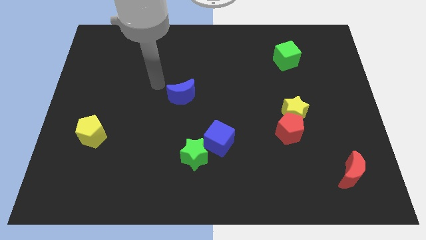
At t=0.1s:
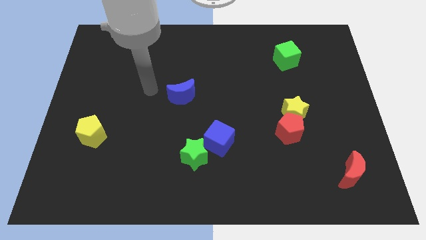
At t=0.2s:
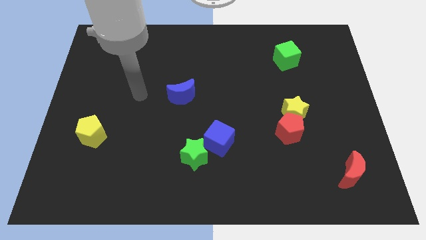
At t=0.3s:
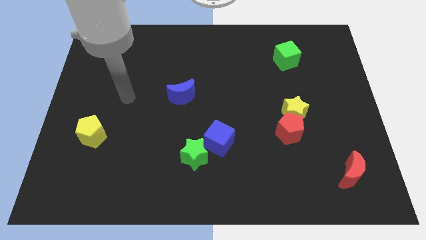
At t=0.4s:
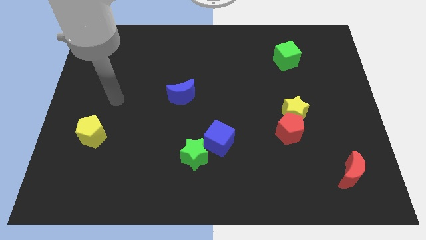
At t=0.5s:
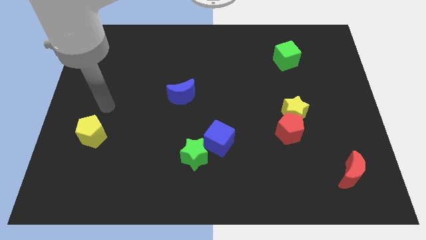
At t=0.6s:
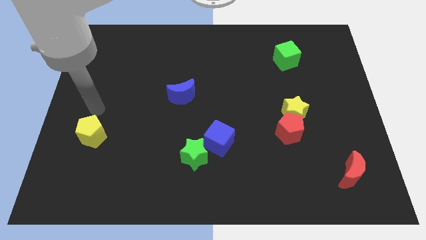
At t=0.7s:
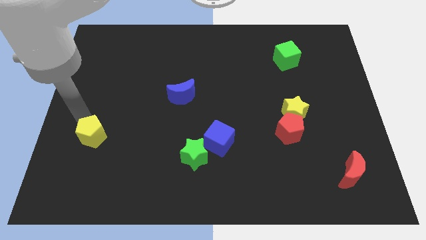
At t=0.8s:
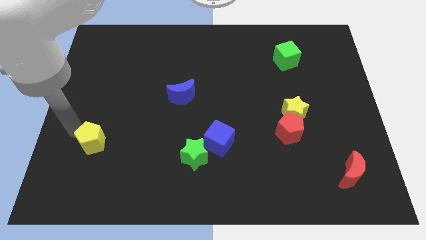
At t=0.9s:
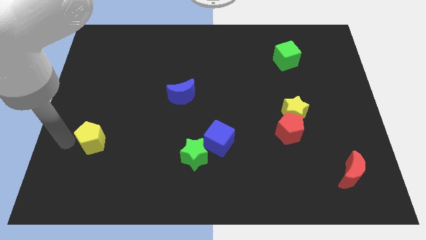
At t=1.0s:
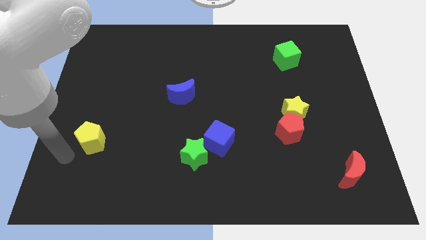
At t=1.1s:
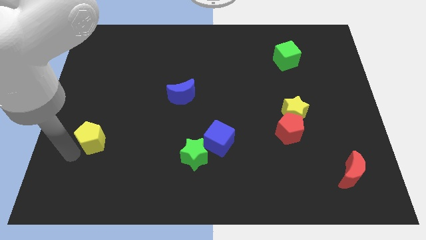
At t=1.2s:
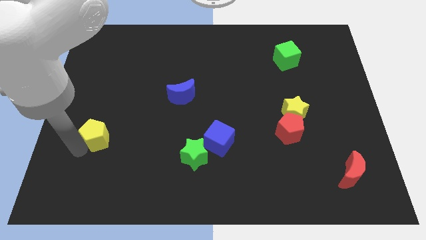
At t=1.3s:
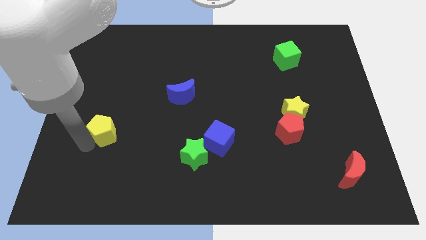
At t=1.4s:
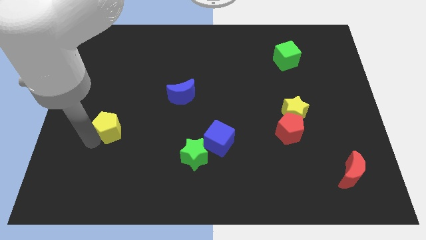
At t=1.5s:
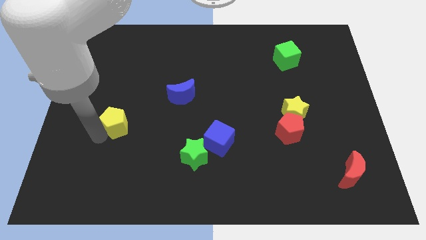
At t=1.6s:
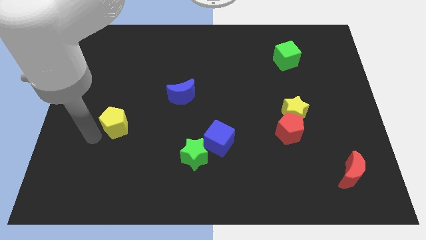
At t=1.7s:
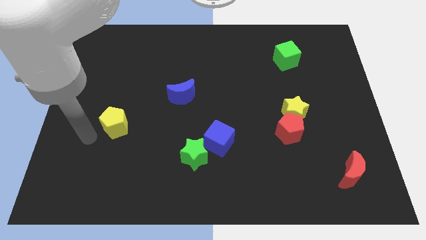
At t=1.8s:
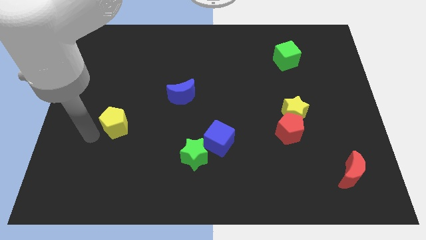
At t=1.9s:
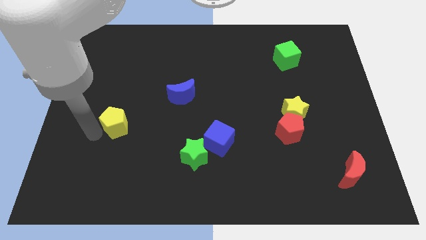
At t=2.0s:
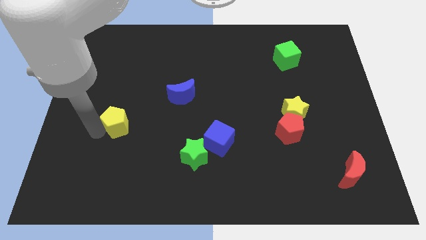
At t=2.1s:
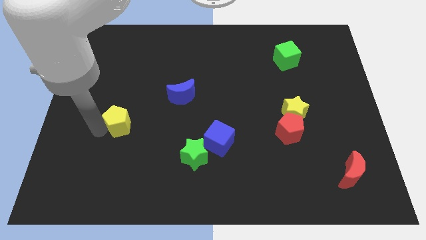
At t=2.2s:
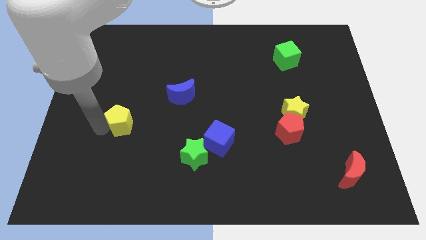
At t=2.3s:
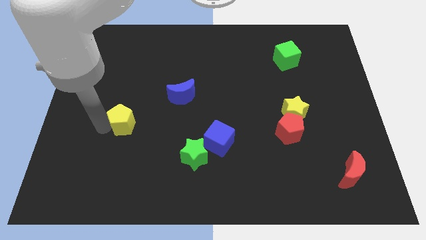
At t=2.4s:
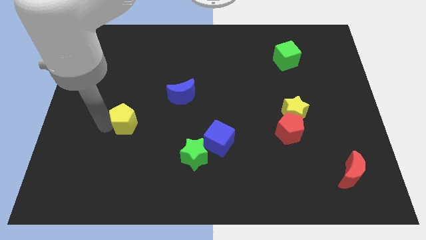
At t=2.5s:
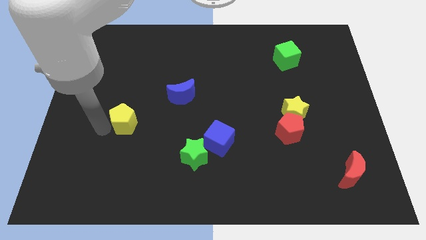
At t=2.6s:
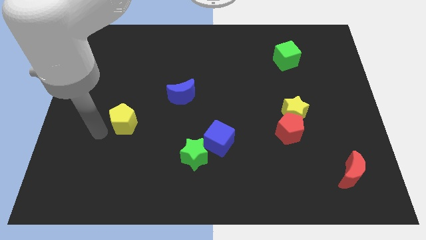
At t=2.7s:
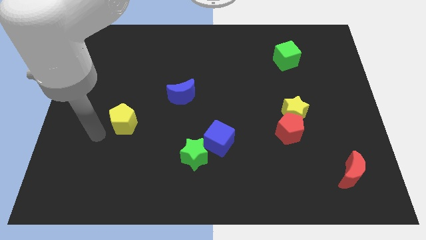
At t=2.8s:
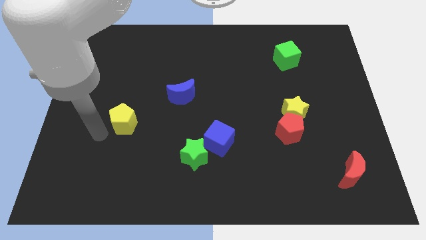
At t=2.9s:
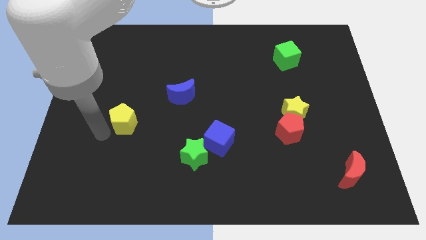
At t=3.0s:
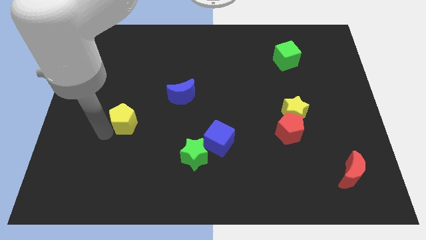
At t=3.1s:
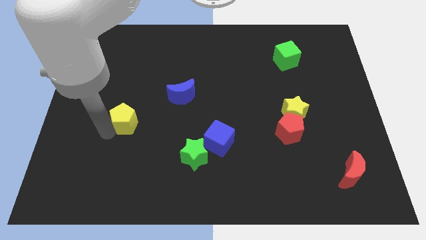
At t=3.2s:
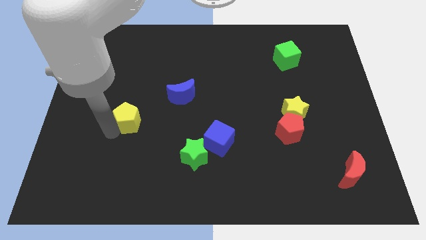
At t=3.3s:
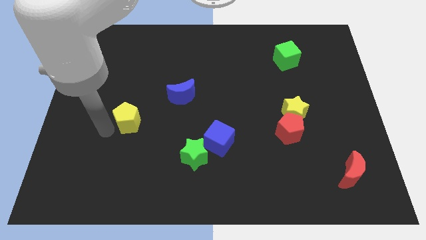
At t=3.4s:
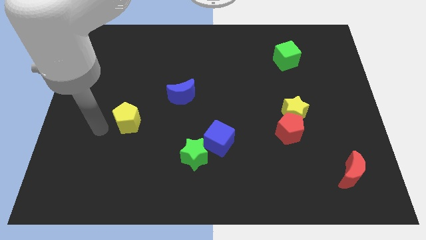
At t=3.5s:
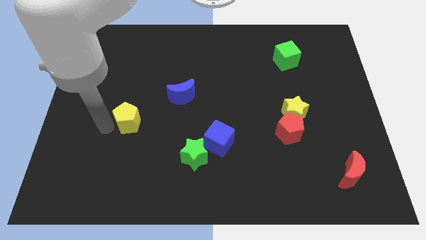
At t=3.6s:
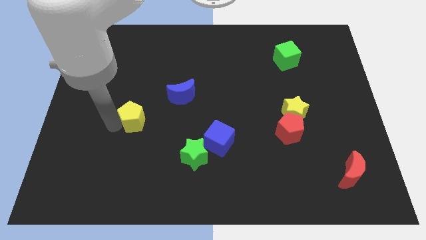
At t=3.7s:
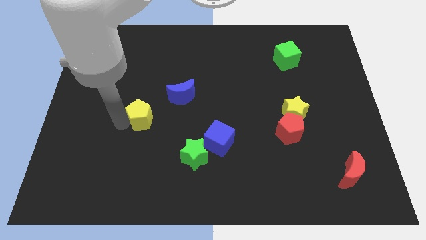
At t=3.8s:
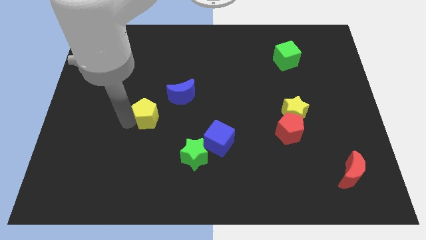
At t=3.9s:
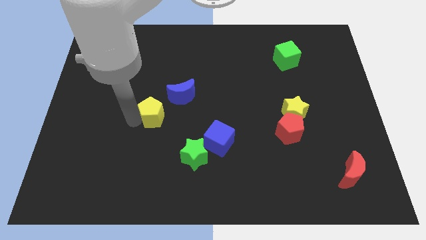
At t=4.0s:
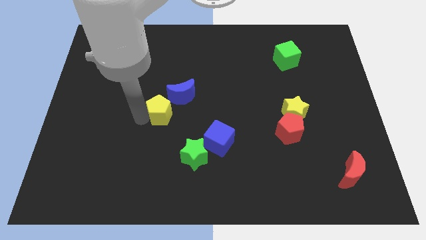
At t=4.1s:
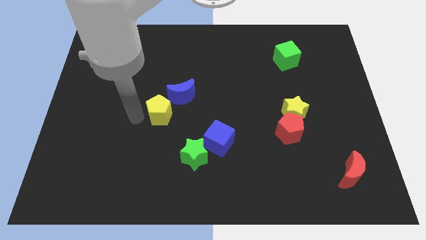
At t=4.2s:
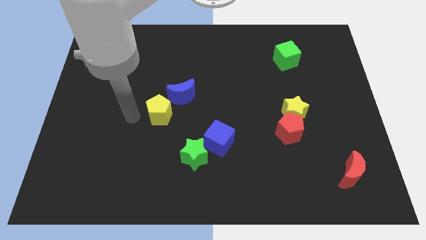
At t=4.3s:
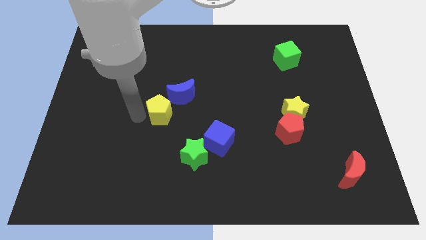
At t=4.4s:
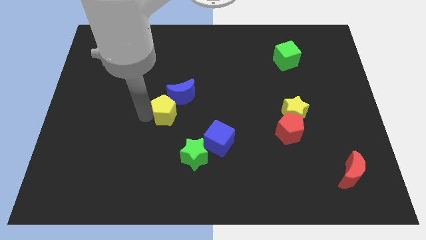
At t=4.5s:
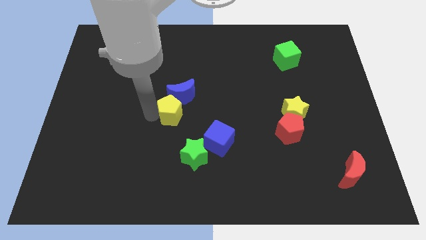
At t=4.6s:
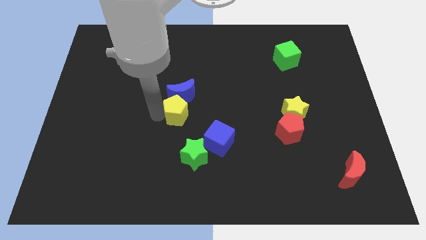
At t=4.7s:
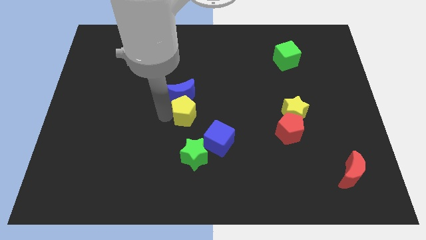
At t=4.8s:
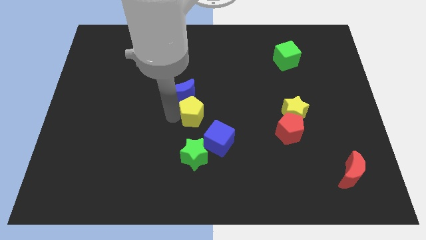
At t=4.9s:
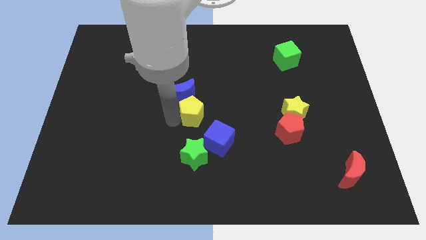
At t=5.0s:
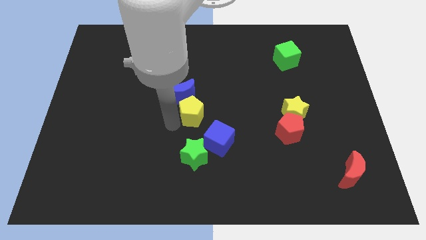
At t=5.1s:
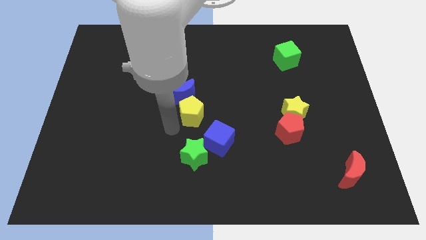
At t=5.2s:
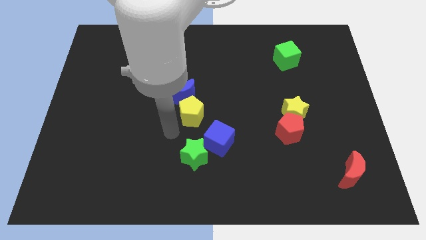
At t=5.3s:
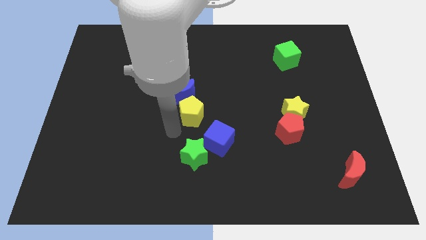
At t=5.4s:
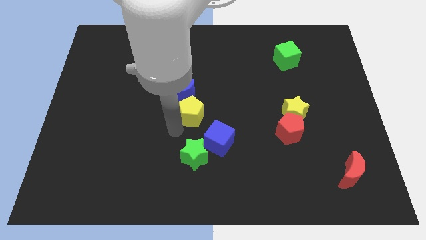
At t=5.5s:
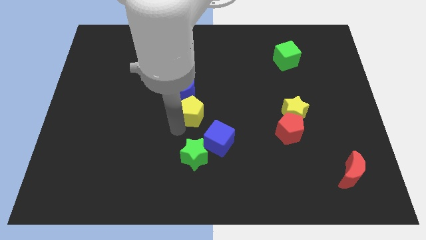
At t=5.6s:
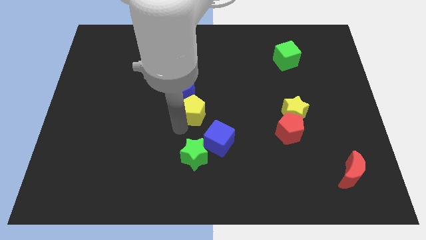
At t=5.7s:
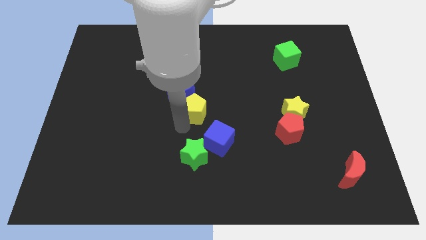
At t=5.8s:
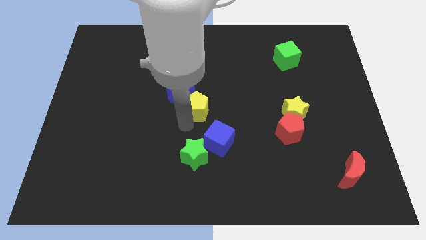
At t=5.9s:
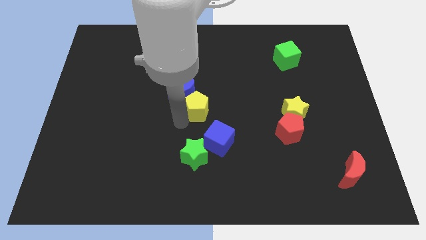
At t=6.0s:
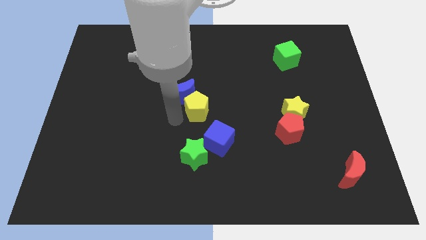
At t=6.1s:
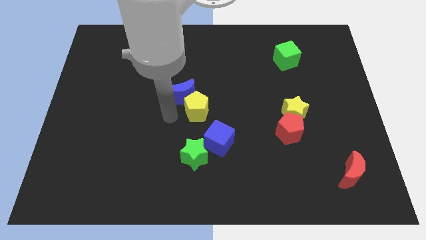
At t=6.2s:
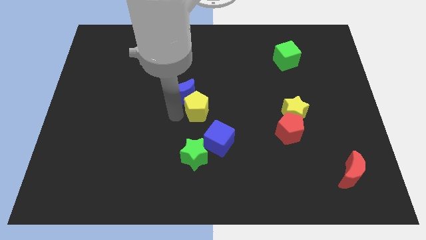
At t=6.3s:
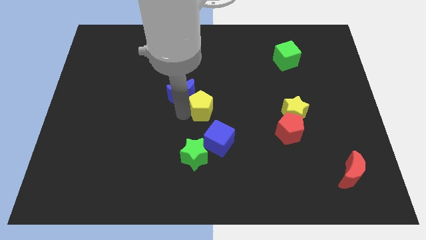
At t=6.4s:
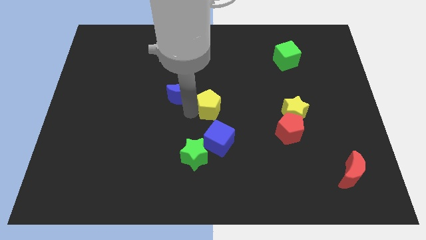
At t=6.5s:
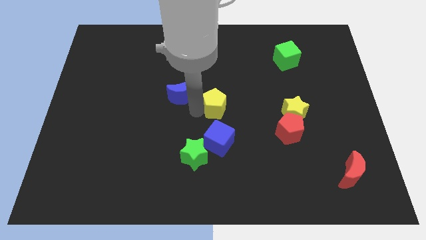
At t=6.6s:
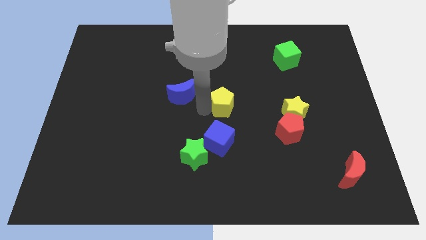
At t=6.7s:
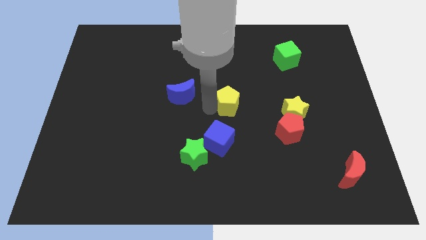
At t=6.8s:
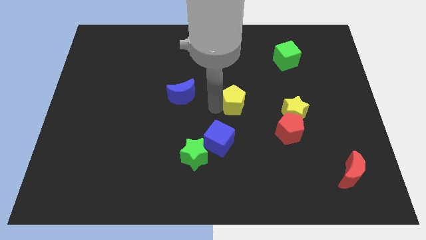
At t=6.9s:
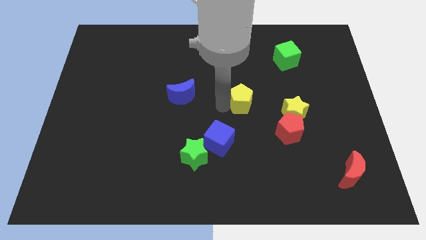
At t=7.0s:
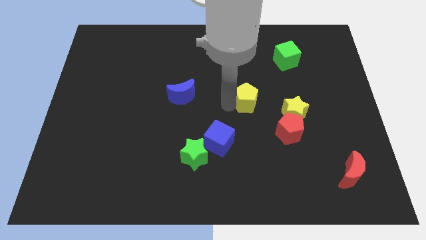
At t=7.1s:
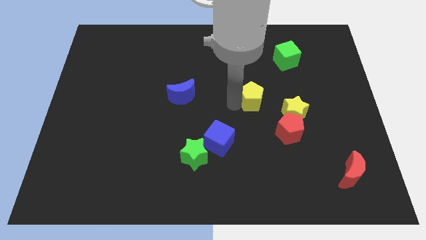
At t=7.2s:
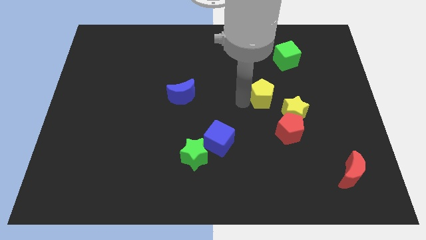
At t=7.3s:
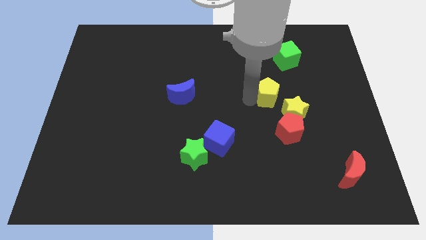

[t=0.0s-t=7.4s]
slide the yellow pentagon to the top of the red pentagon
